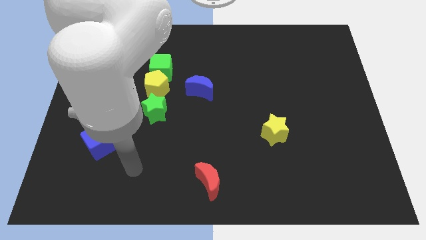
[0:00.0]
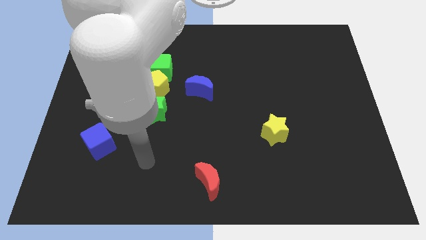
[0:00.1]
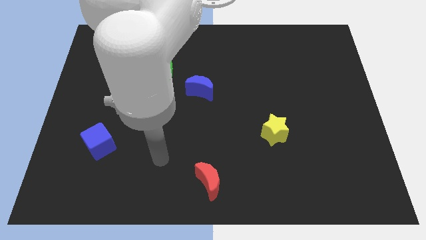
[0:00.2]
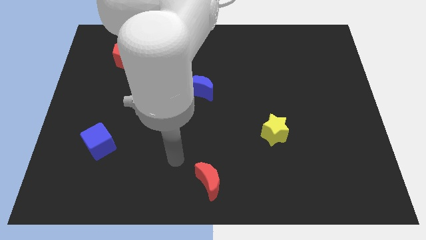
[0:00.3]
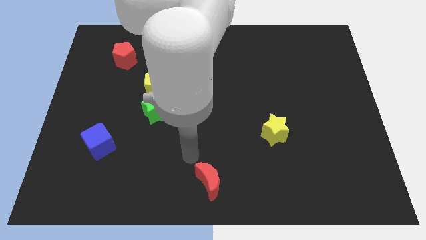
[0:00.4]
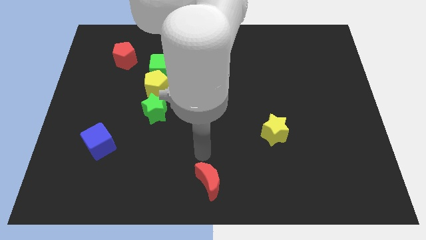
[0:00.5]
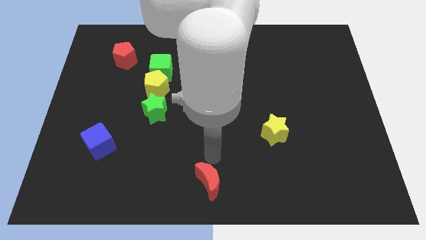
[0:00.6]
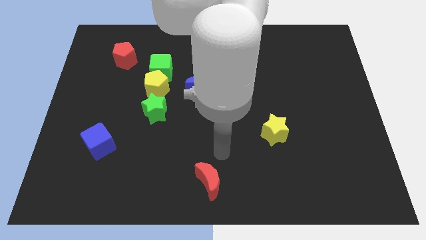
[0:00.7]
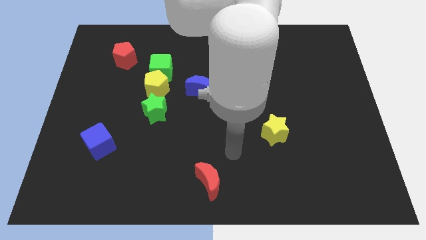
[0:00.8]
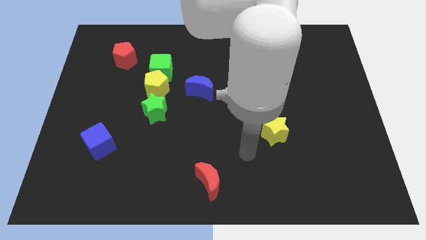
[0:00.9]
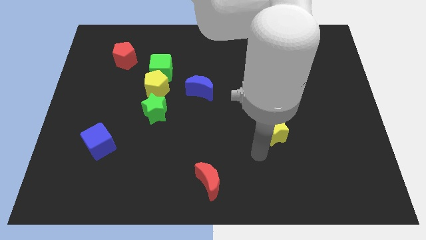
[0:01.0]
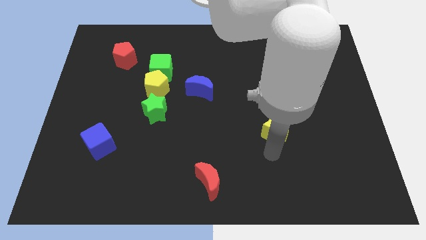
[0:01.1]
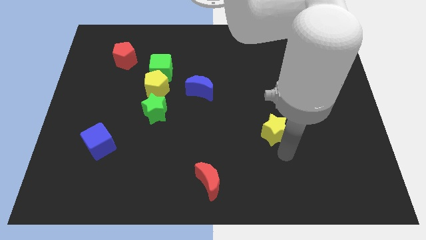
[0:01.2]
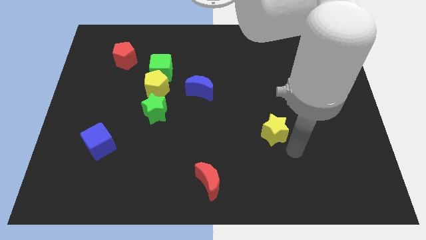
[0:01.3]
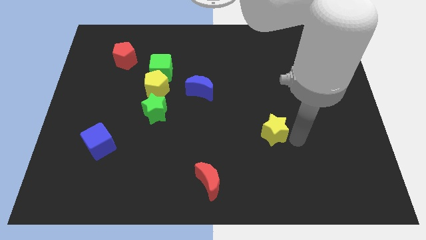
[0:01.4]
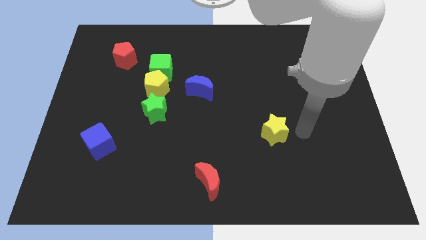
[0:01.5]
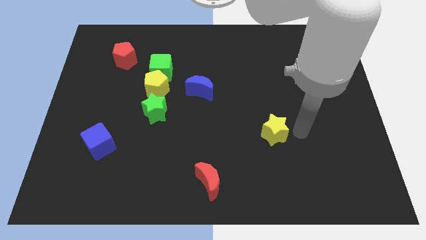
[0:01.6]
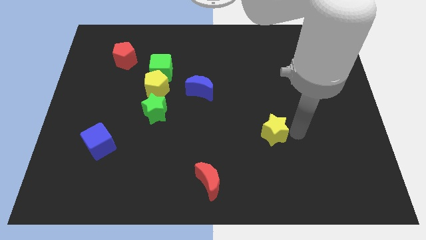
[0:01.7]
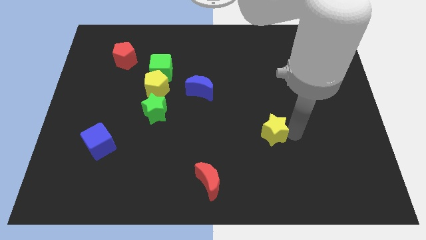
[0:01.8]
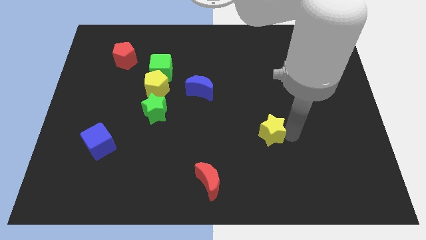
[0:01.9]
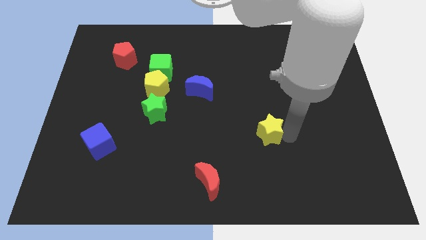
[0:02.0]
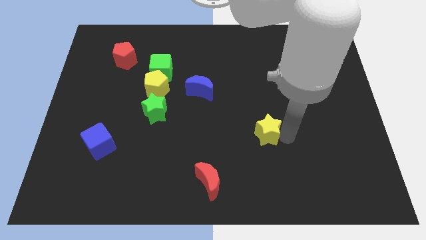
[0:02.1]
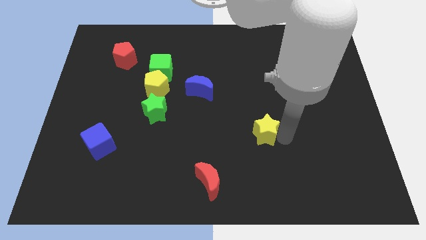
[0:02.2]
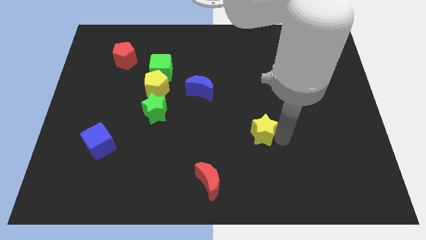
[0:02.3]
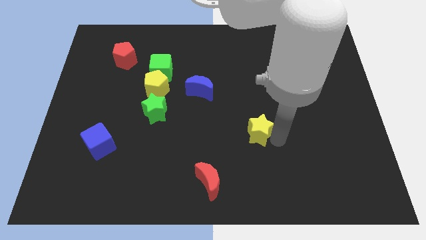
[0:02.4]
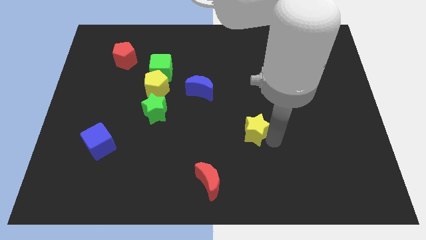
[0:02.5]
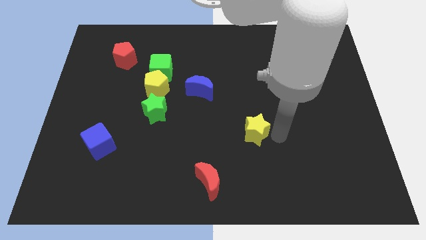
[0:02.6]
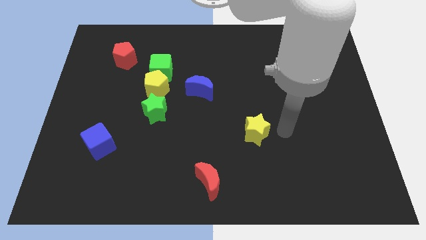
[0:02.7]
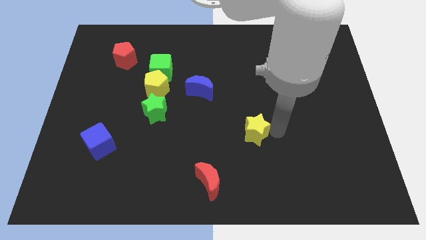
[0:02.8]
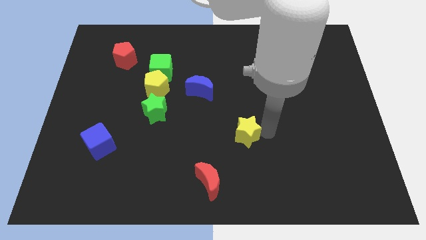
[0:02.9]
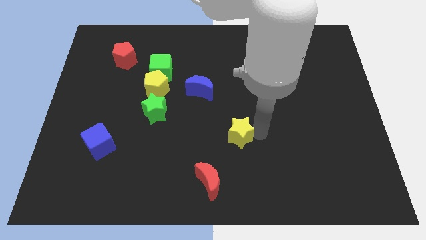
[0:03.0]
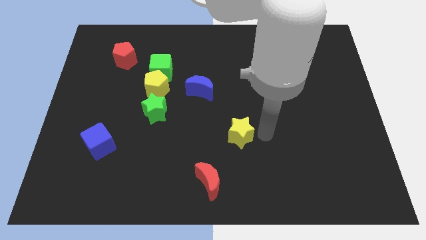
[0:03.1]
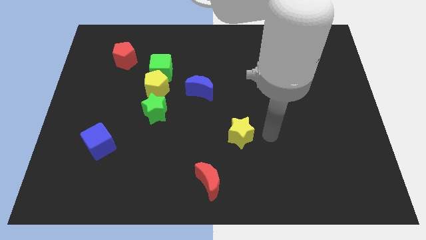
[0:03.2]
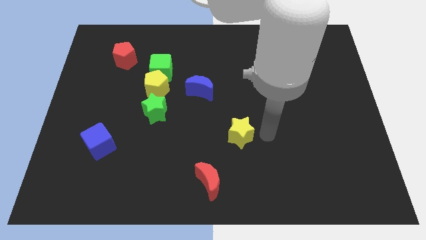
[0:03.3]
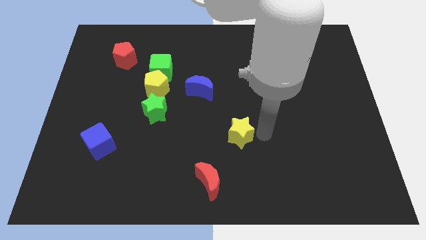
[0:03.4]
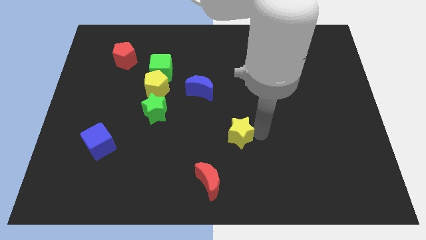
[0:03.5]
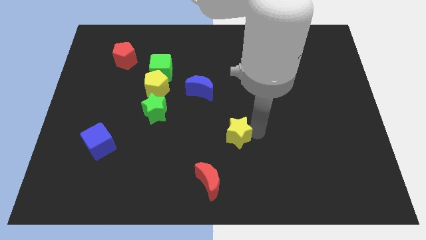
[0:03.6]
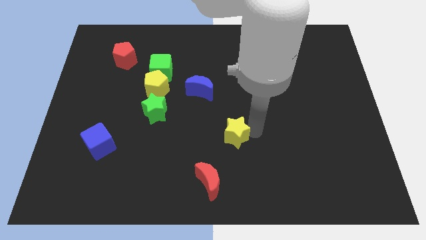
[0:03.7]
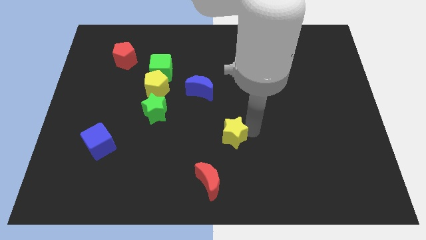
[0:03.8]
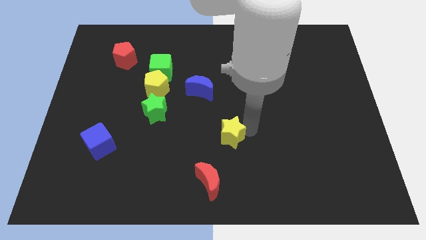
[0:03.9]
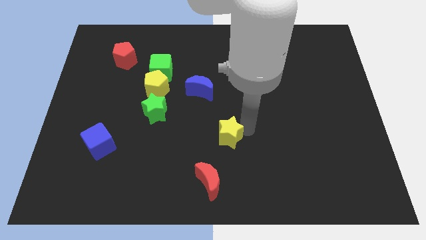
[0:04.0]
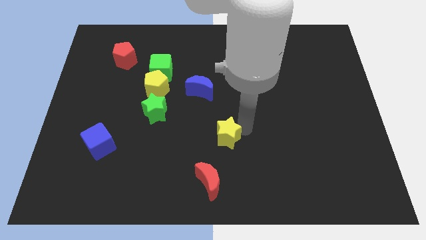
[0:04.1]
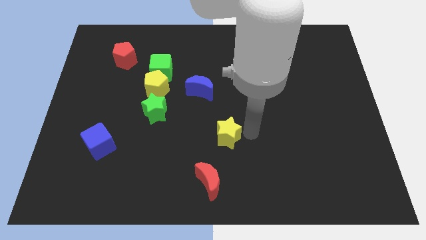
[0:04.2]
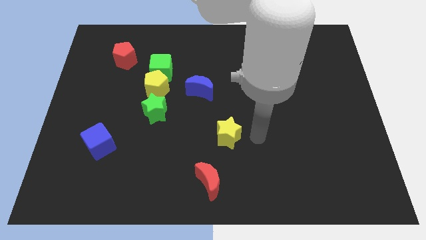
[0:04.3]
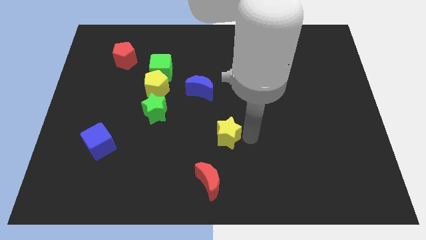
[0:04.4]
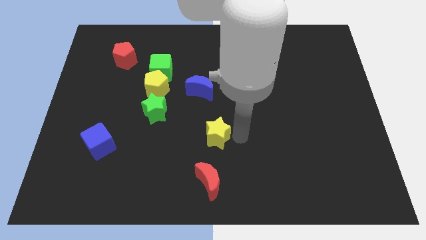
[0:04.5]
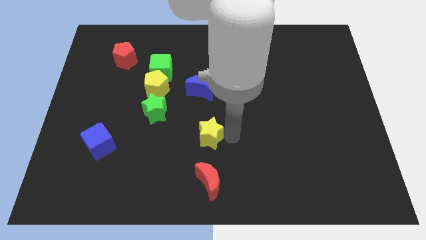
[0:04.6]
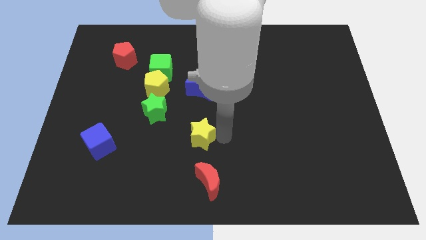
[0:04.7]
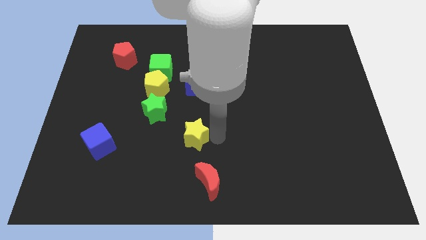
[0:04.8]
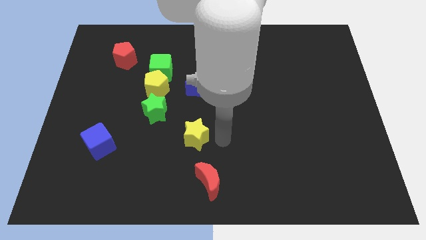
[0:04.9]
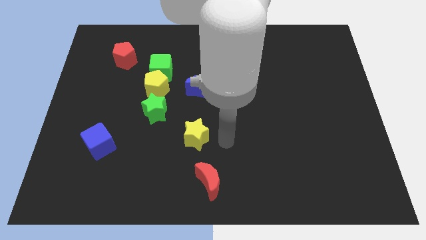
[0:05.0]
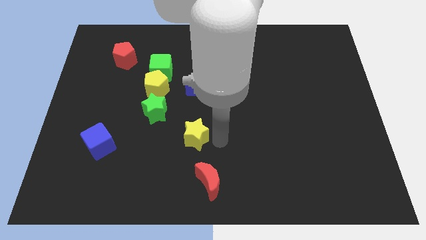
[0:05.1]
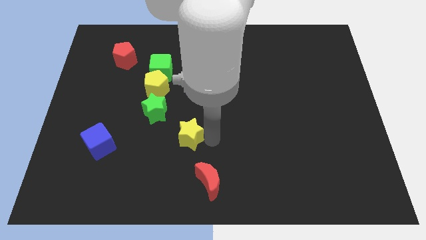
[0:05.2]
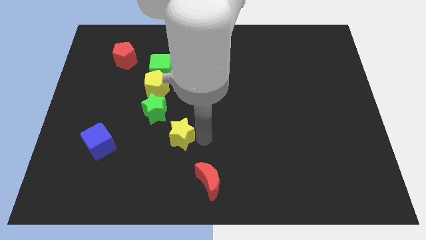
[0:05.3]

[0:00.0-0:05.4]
slide the yellow star to the left

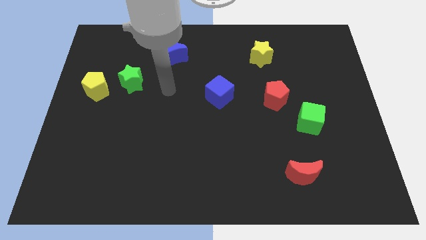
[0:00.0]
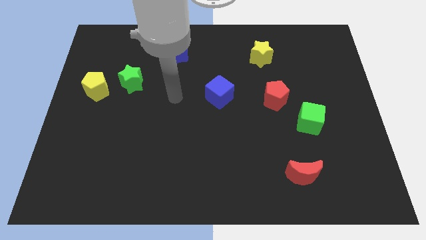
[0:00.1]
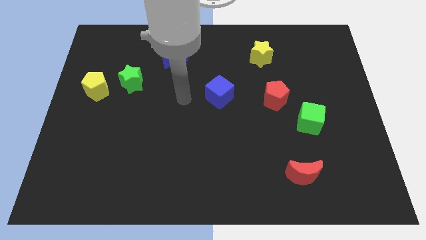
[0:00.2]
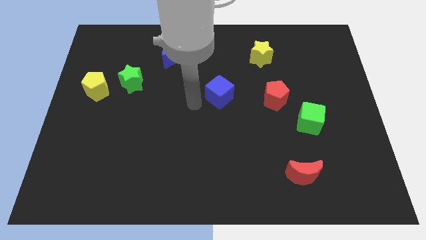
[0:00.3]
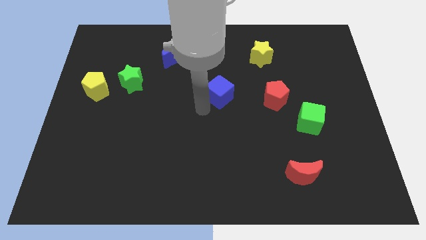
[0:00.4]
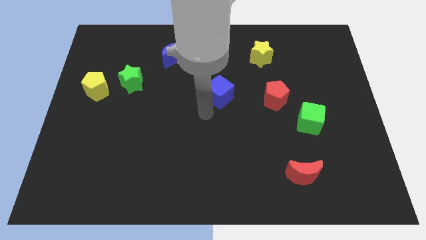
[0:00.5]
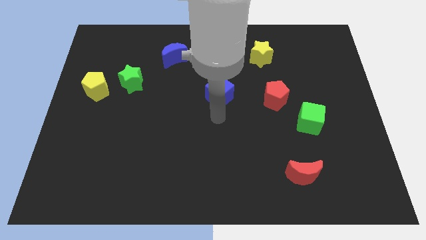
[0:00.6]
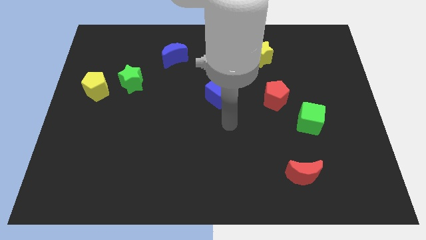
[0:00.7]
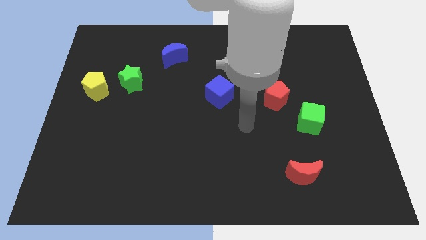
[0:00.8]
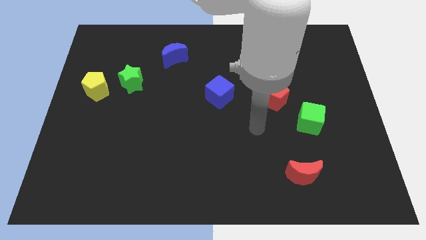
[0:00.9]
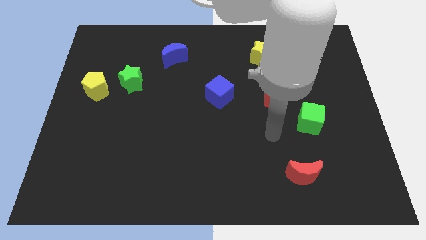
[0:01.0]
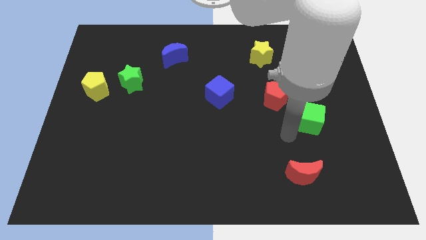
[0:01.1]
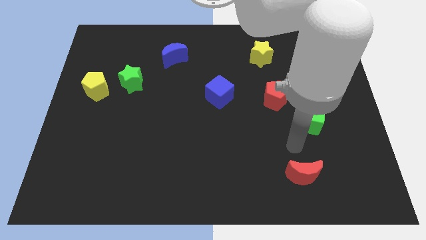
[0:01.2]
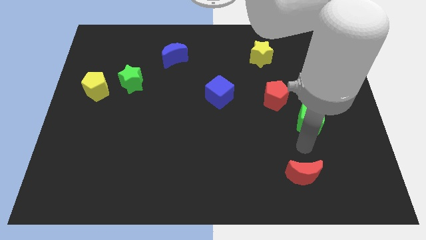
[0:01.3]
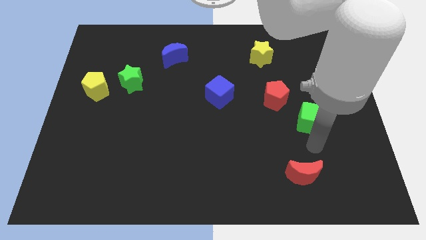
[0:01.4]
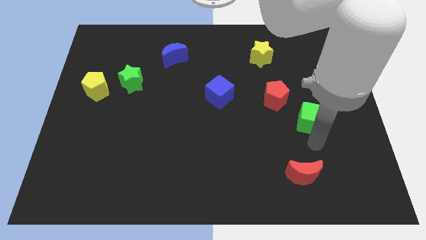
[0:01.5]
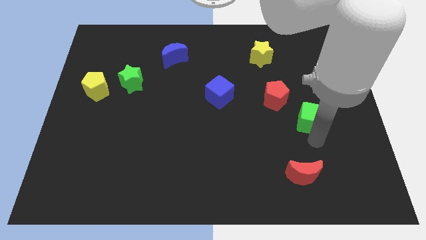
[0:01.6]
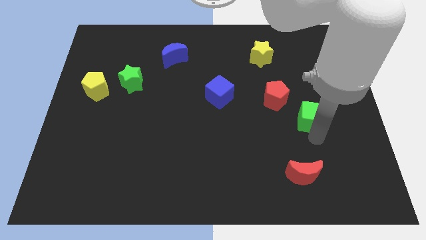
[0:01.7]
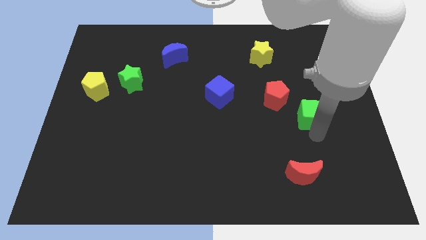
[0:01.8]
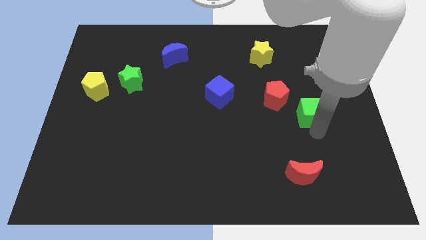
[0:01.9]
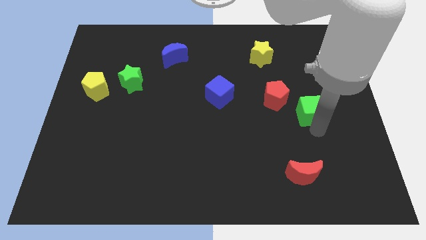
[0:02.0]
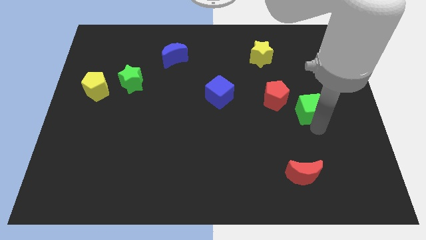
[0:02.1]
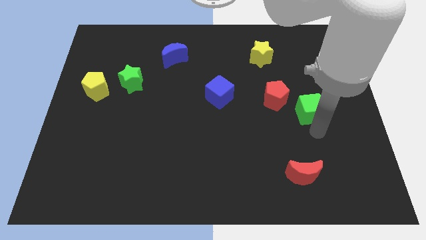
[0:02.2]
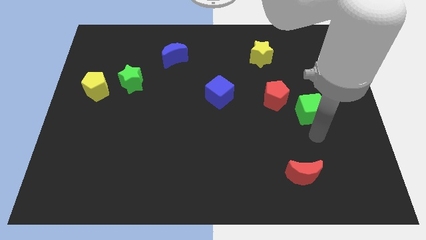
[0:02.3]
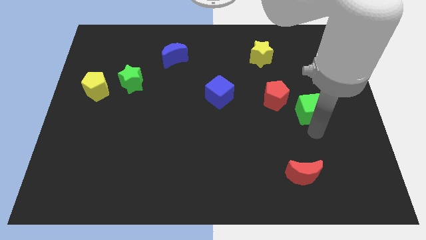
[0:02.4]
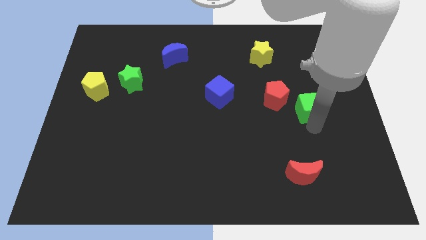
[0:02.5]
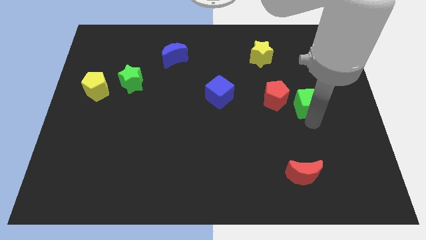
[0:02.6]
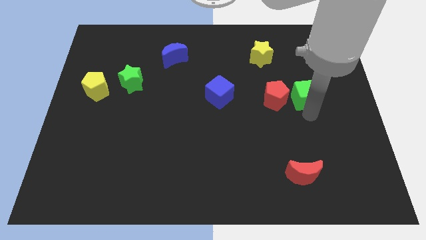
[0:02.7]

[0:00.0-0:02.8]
slightly push the green cube up
